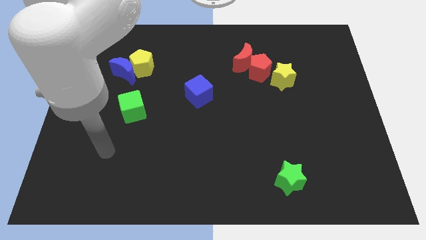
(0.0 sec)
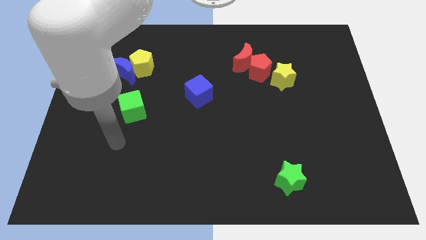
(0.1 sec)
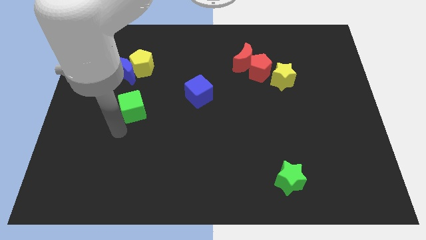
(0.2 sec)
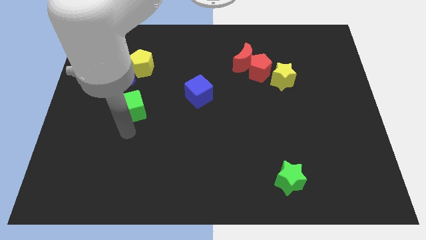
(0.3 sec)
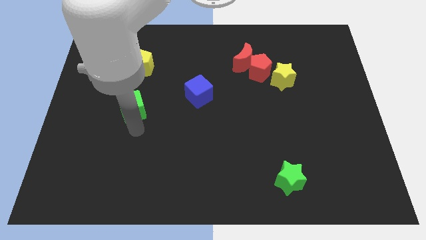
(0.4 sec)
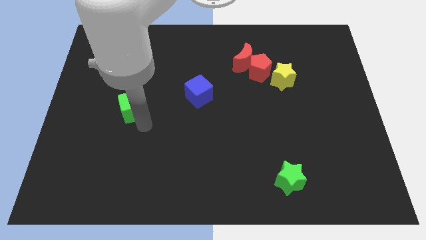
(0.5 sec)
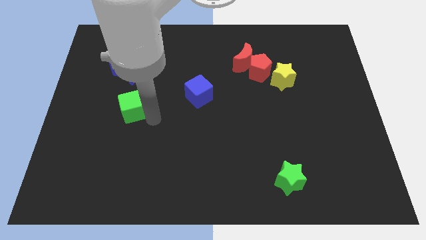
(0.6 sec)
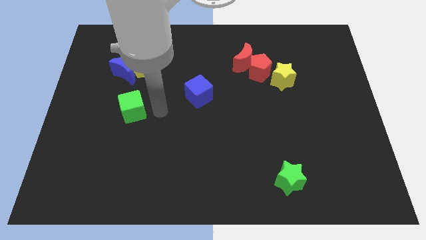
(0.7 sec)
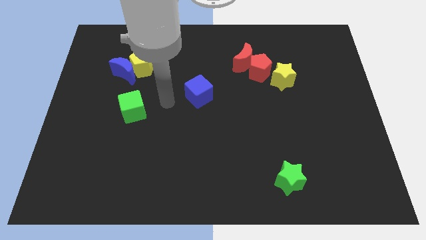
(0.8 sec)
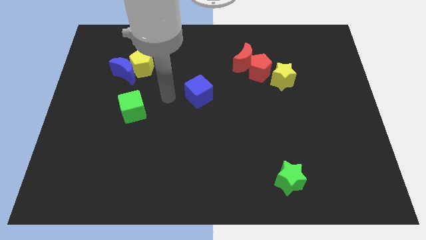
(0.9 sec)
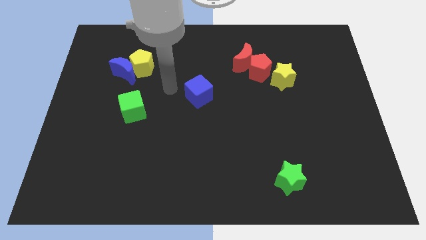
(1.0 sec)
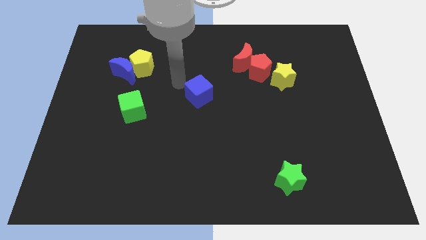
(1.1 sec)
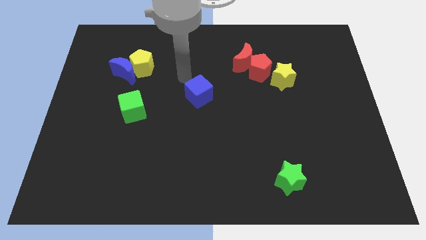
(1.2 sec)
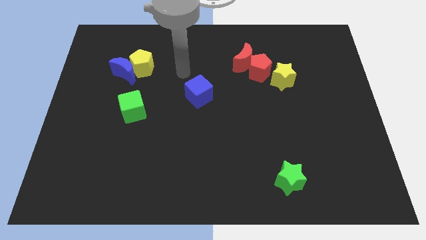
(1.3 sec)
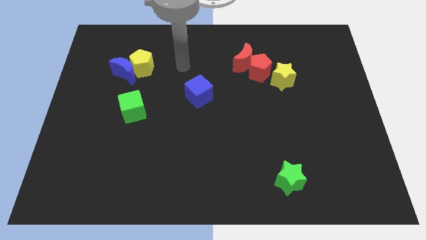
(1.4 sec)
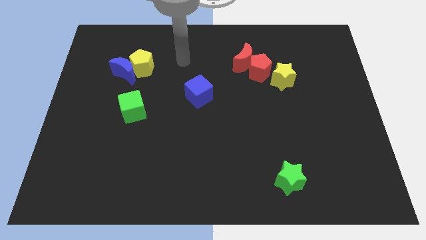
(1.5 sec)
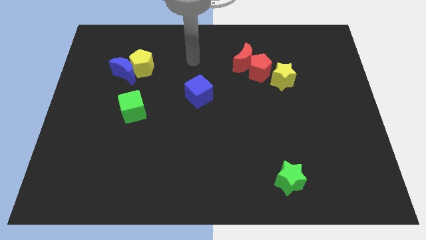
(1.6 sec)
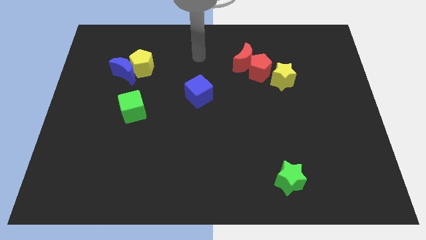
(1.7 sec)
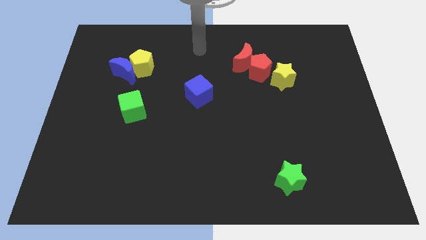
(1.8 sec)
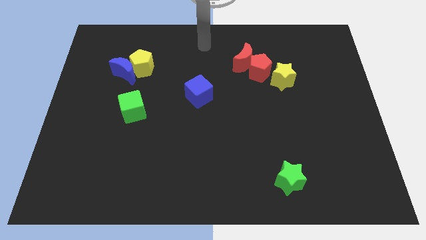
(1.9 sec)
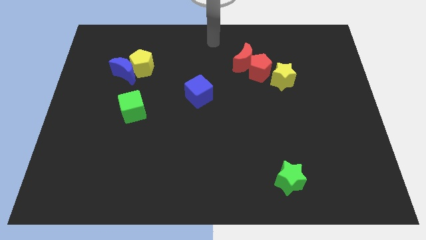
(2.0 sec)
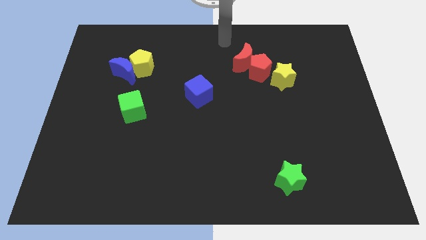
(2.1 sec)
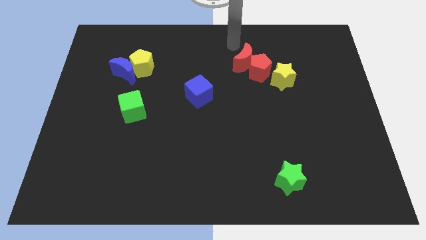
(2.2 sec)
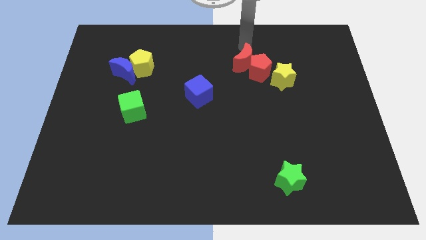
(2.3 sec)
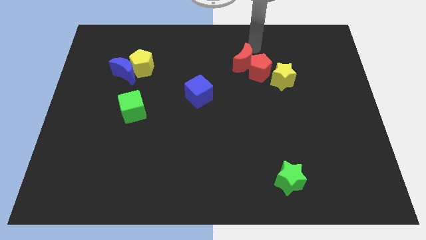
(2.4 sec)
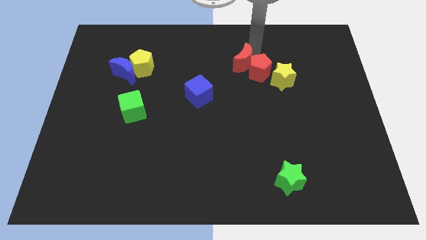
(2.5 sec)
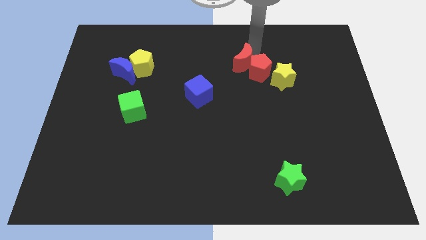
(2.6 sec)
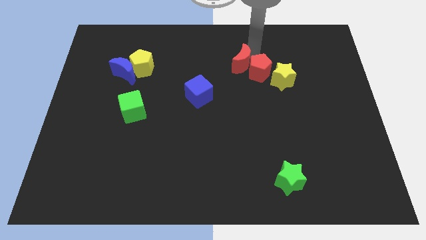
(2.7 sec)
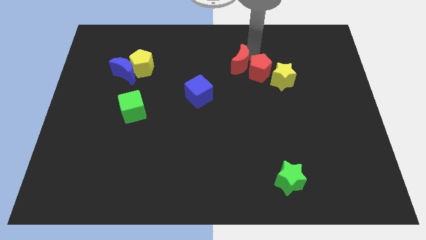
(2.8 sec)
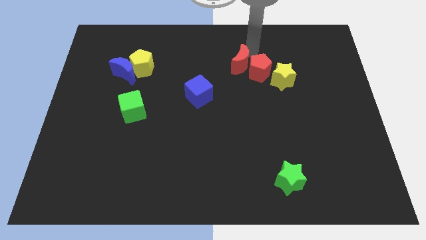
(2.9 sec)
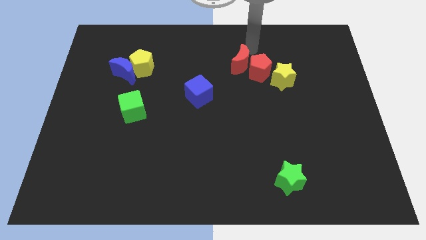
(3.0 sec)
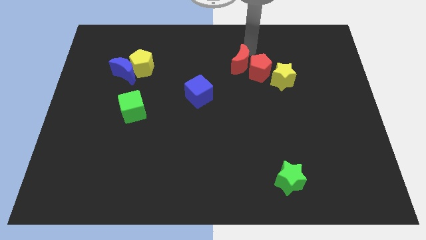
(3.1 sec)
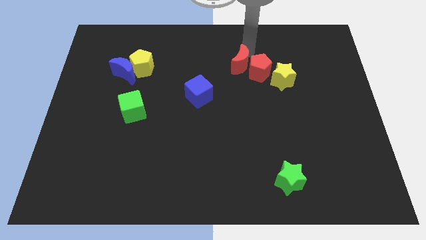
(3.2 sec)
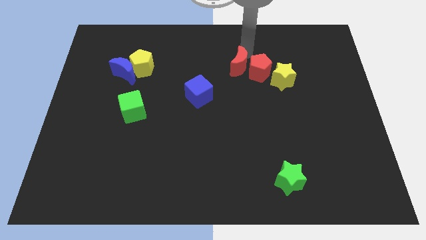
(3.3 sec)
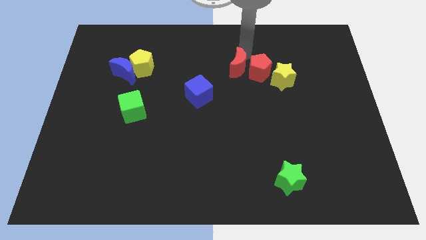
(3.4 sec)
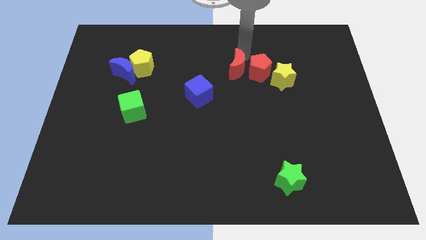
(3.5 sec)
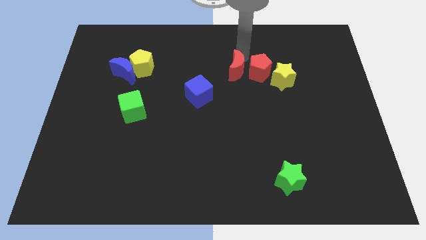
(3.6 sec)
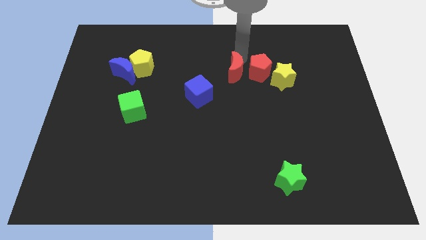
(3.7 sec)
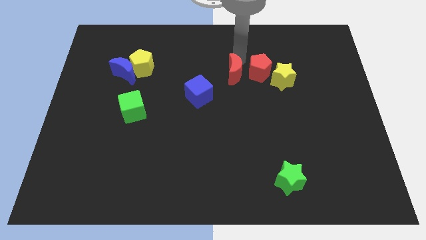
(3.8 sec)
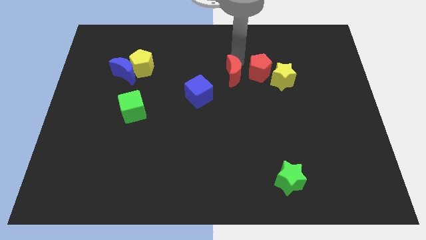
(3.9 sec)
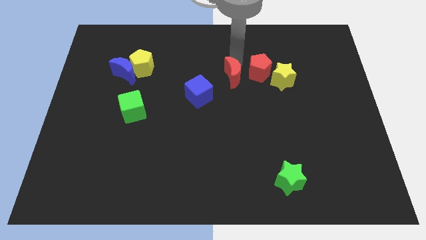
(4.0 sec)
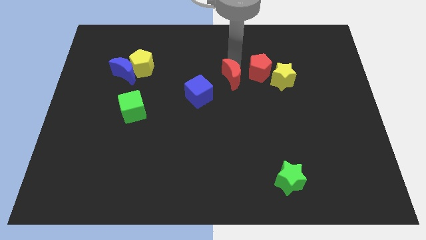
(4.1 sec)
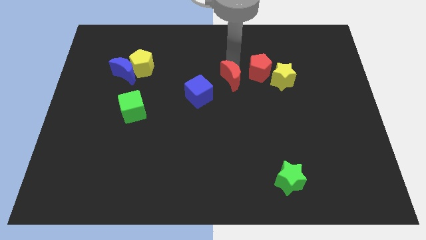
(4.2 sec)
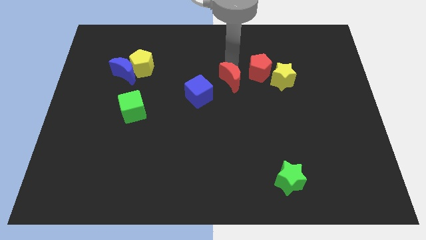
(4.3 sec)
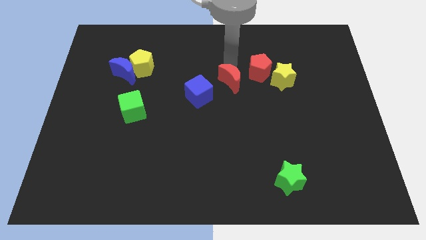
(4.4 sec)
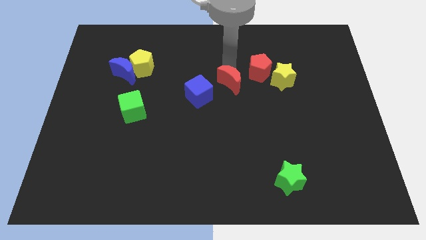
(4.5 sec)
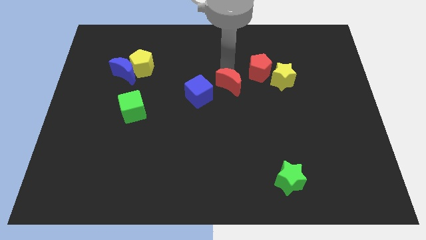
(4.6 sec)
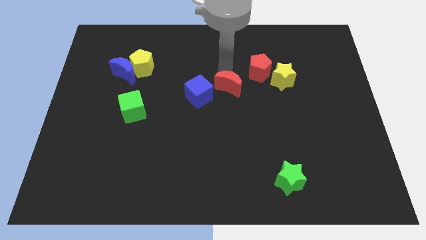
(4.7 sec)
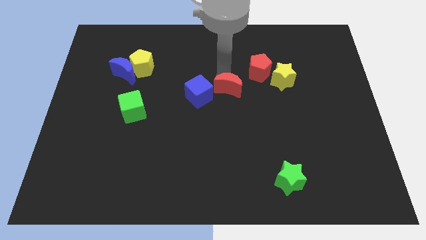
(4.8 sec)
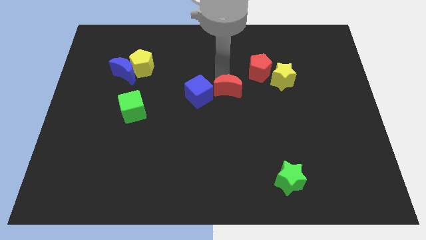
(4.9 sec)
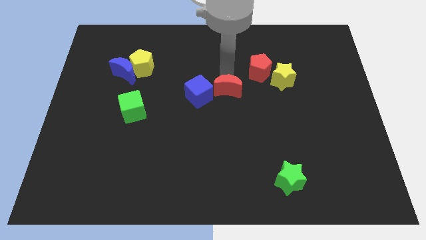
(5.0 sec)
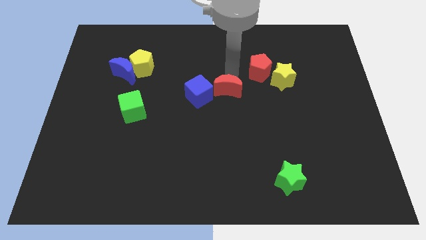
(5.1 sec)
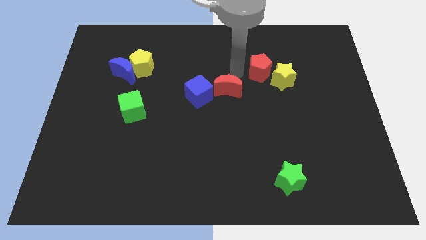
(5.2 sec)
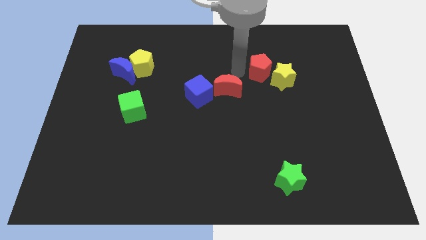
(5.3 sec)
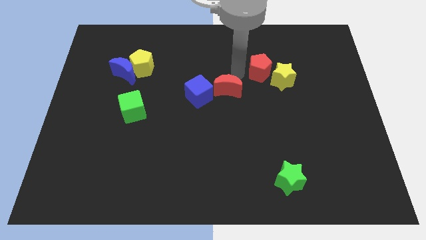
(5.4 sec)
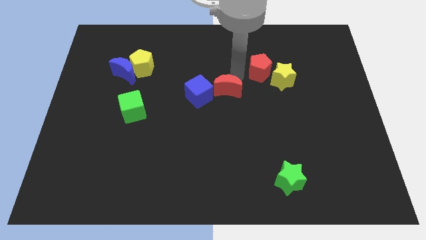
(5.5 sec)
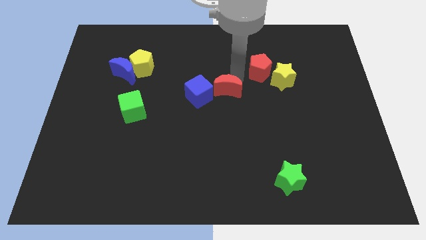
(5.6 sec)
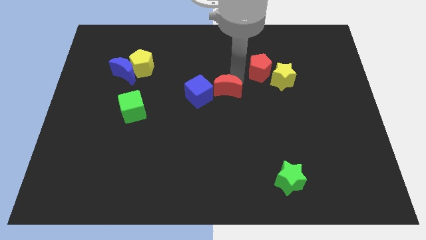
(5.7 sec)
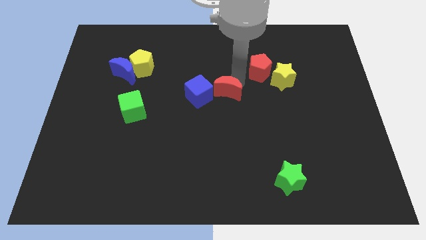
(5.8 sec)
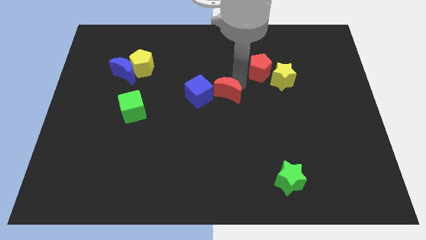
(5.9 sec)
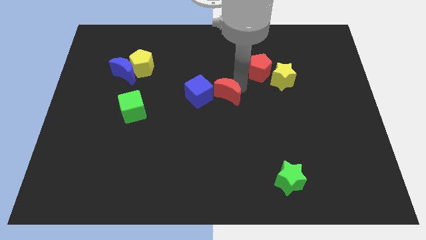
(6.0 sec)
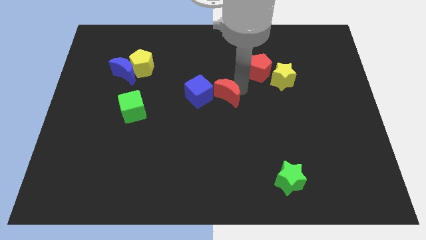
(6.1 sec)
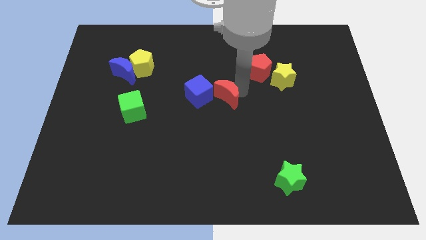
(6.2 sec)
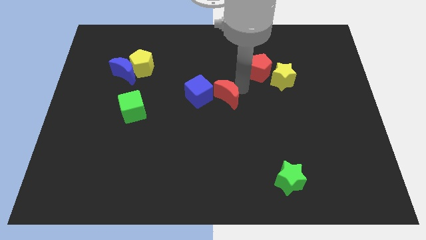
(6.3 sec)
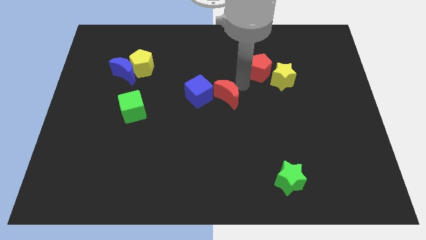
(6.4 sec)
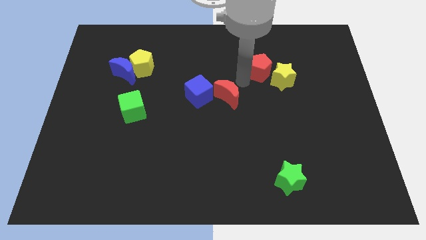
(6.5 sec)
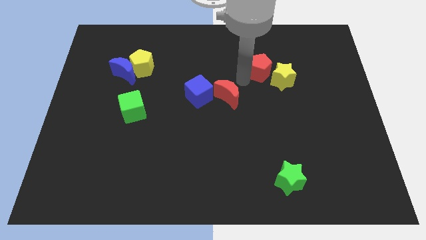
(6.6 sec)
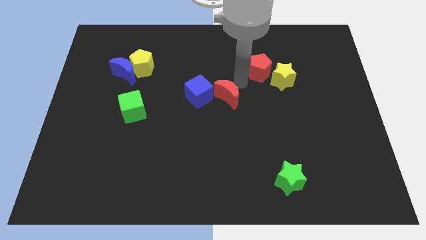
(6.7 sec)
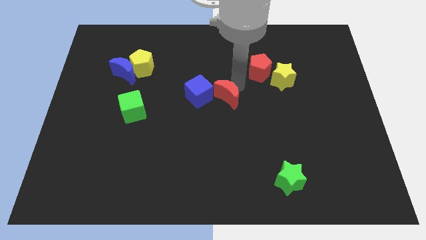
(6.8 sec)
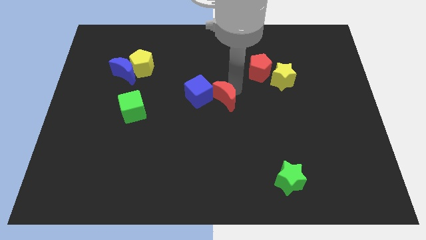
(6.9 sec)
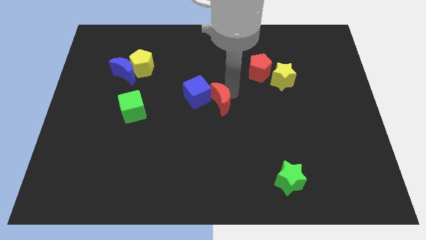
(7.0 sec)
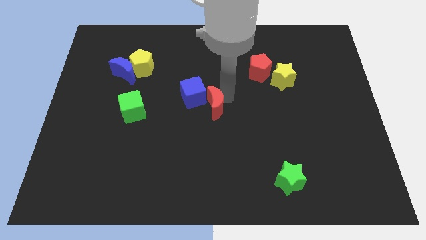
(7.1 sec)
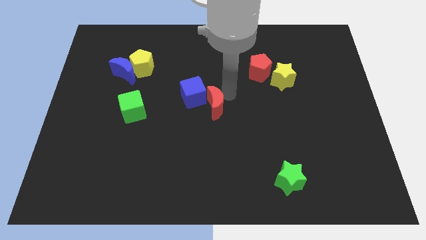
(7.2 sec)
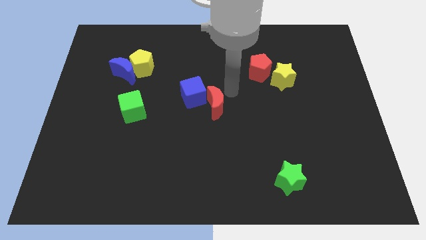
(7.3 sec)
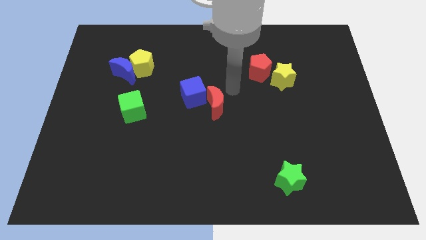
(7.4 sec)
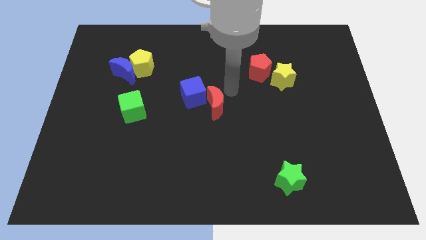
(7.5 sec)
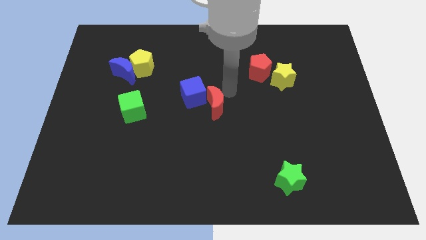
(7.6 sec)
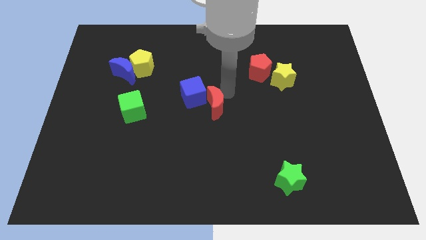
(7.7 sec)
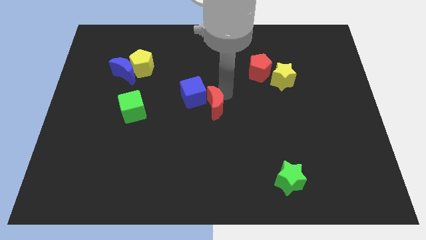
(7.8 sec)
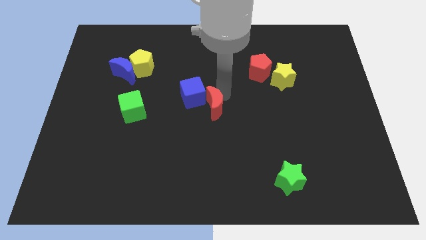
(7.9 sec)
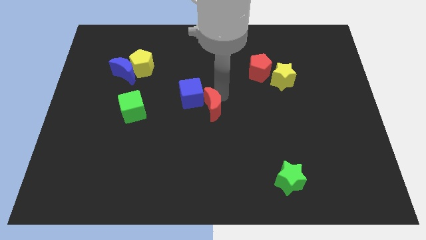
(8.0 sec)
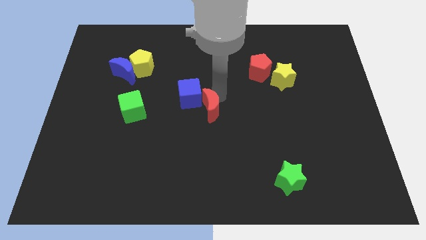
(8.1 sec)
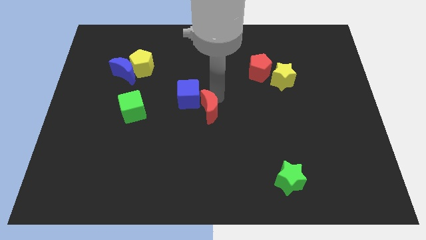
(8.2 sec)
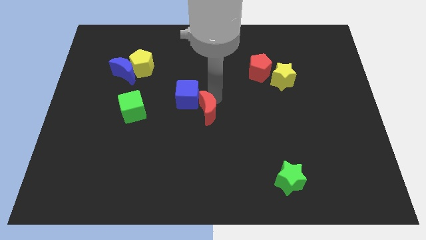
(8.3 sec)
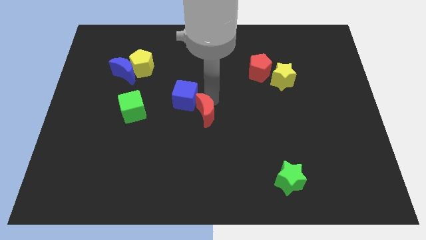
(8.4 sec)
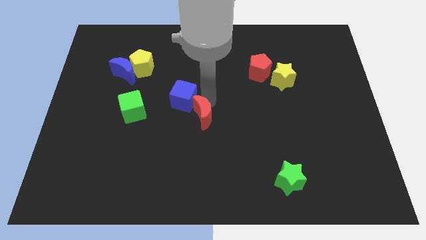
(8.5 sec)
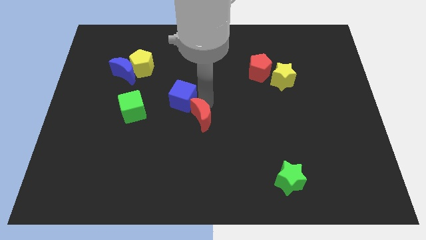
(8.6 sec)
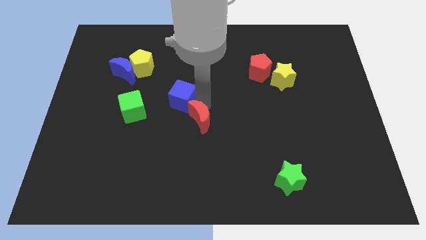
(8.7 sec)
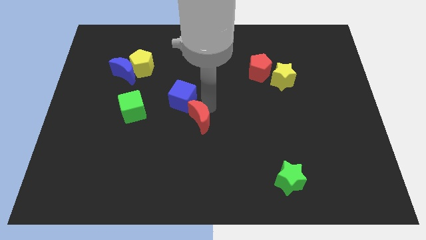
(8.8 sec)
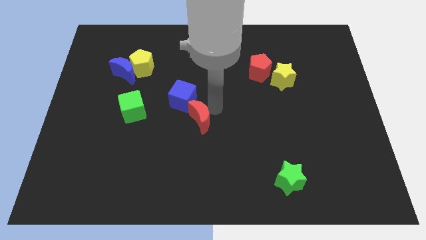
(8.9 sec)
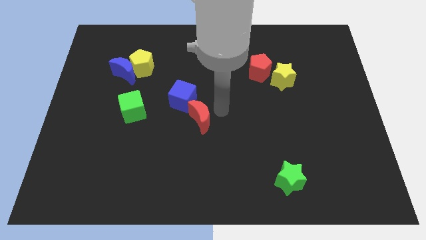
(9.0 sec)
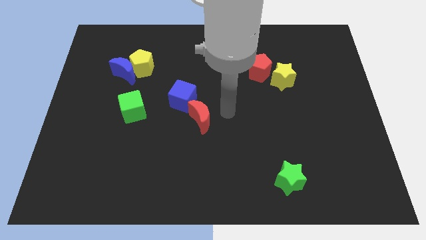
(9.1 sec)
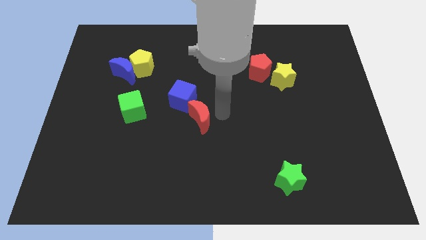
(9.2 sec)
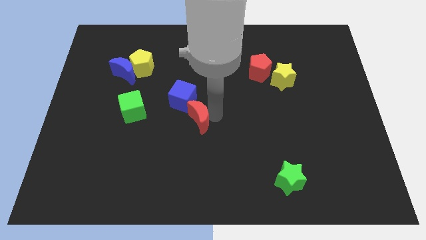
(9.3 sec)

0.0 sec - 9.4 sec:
move the red moon downwards and then to the left
